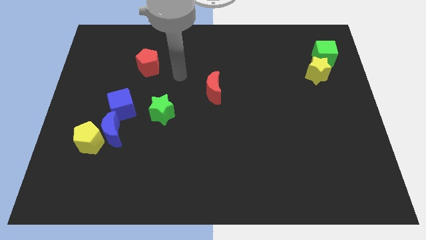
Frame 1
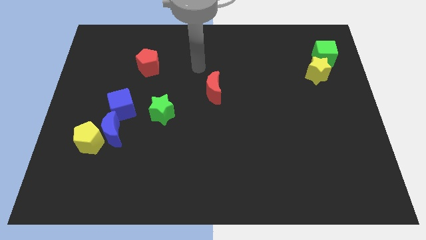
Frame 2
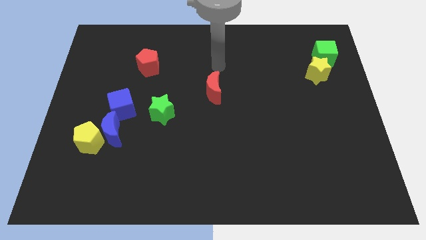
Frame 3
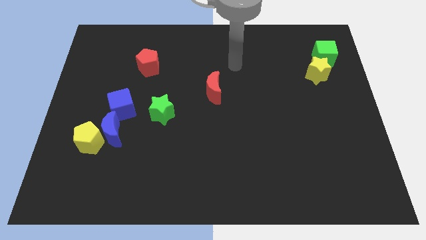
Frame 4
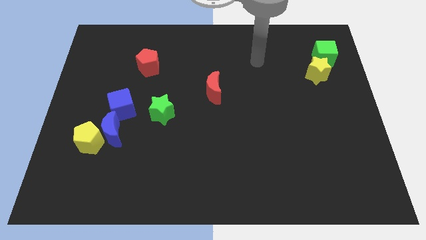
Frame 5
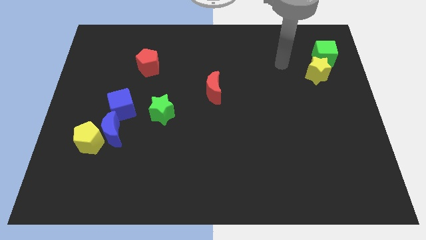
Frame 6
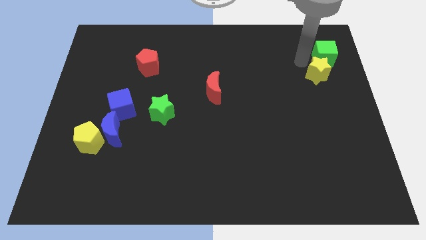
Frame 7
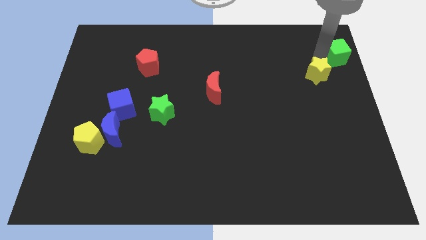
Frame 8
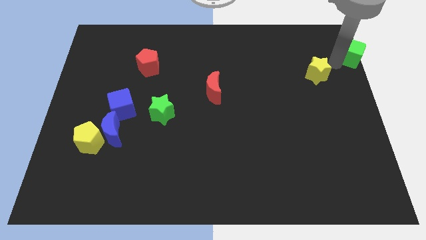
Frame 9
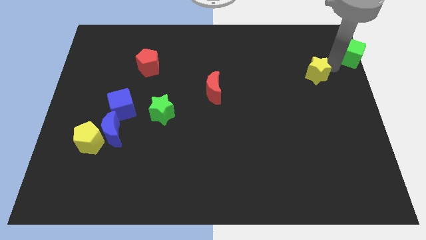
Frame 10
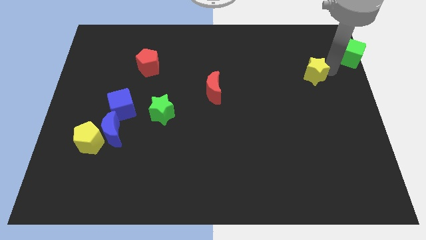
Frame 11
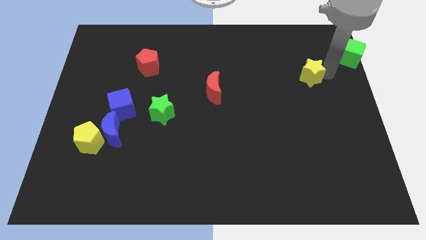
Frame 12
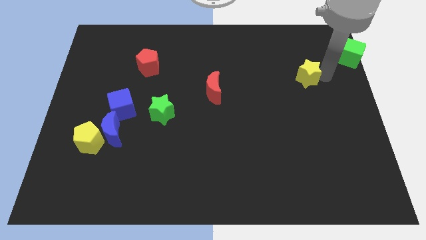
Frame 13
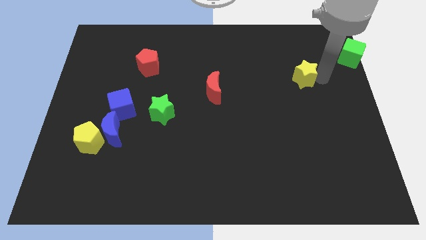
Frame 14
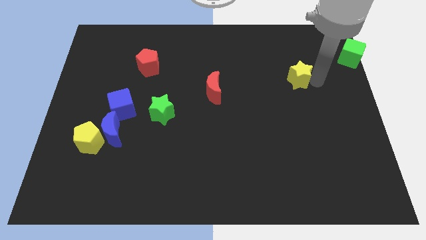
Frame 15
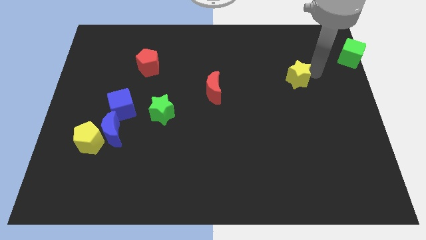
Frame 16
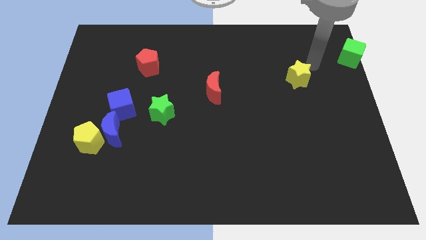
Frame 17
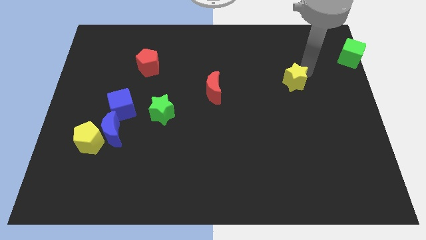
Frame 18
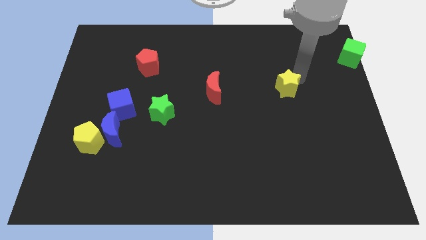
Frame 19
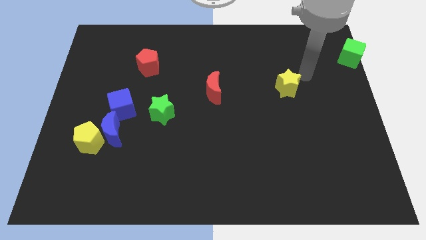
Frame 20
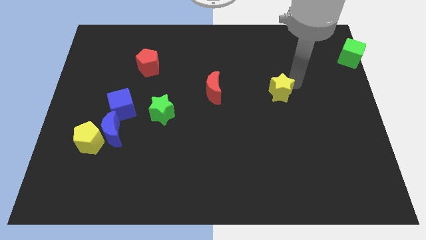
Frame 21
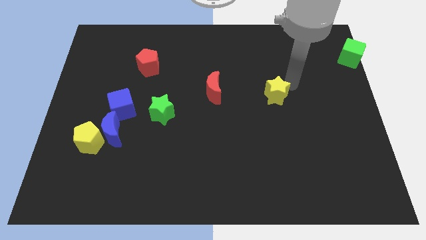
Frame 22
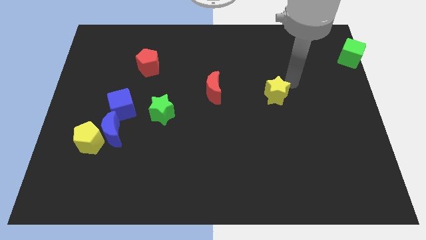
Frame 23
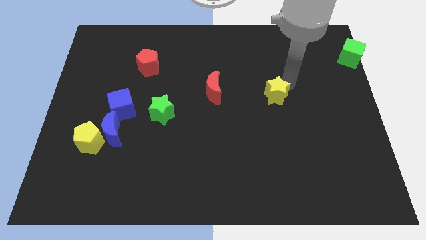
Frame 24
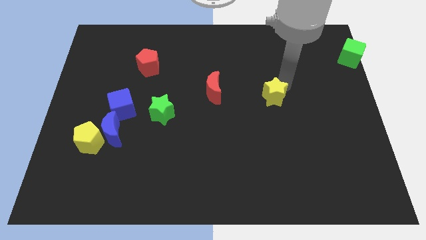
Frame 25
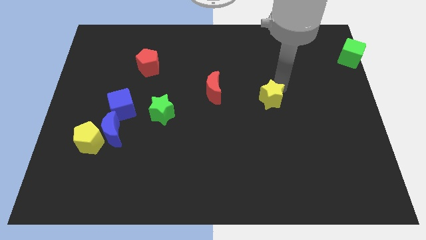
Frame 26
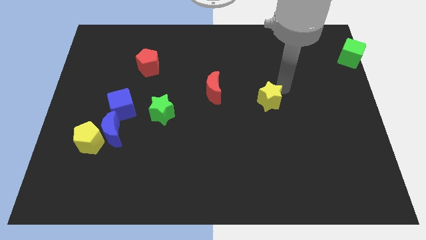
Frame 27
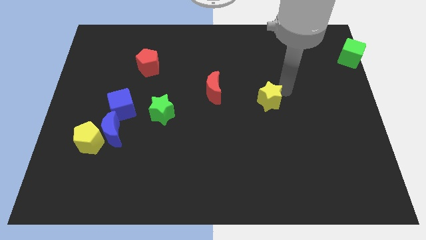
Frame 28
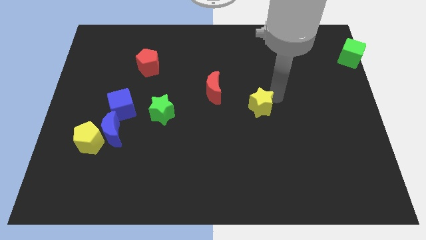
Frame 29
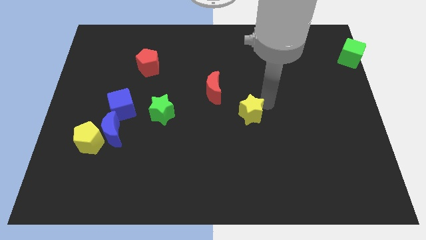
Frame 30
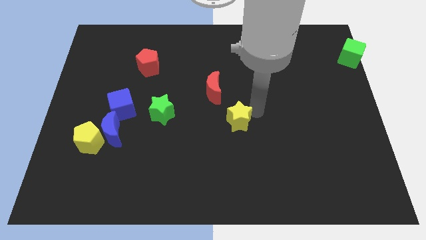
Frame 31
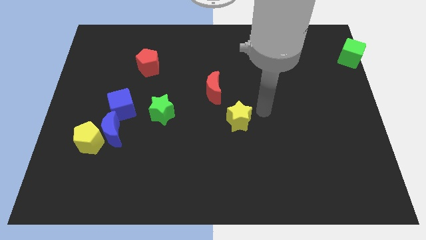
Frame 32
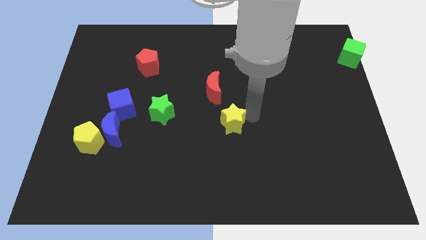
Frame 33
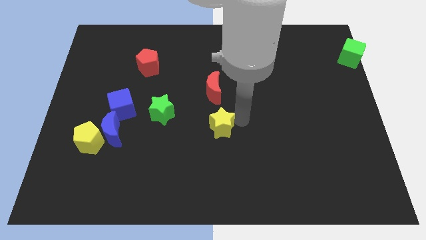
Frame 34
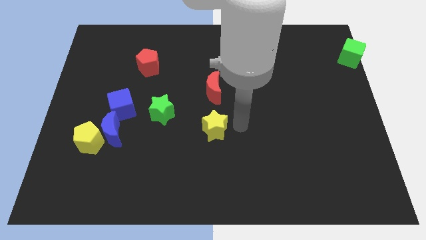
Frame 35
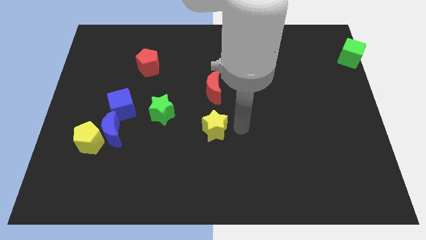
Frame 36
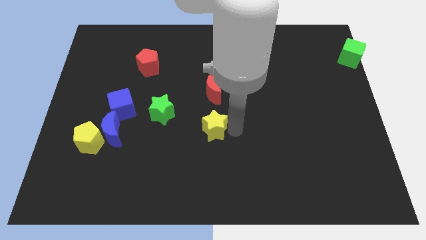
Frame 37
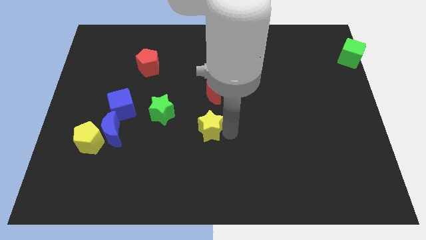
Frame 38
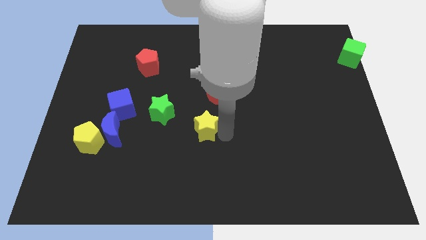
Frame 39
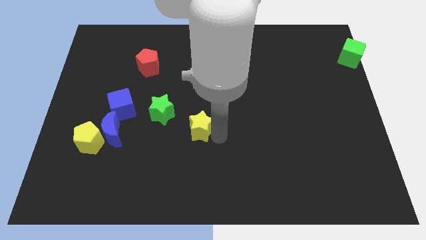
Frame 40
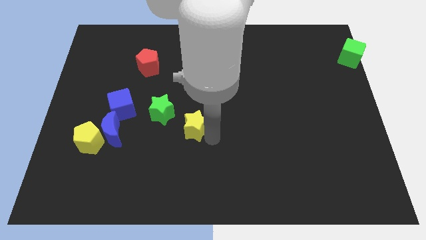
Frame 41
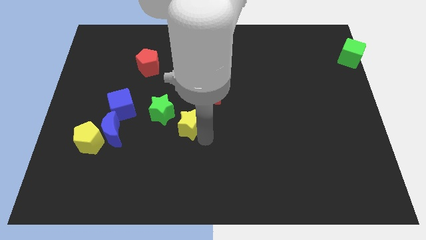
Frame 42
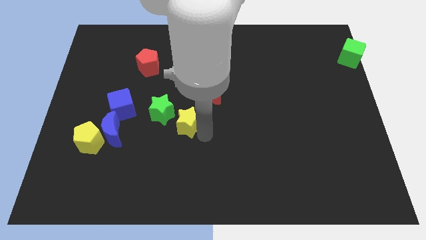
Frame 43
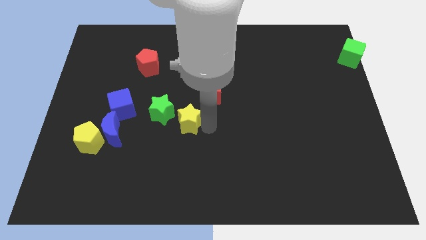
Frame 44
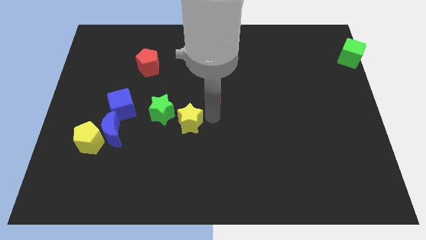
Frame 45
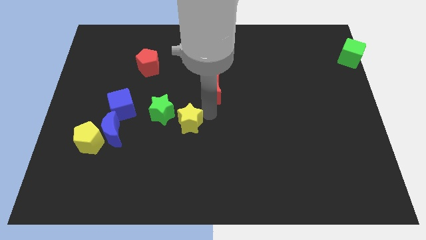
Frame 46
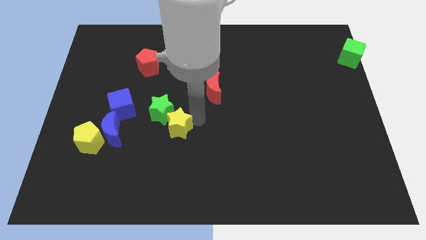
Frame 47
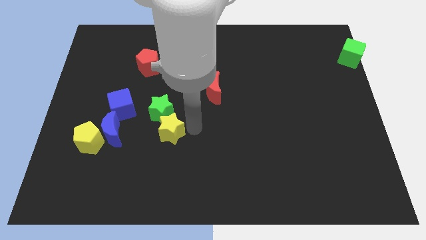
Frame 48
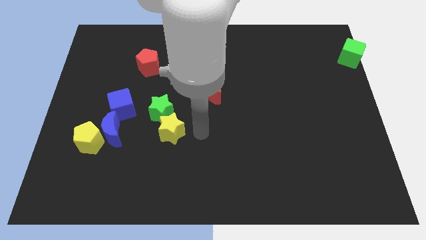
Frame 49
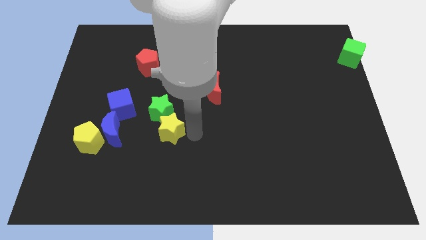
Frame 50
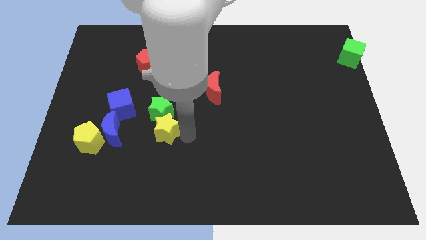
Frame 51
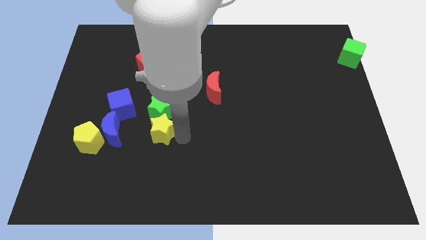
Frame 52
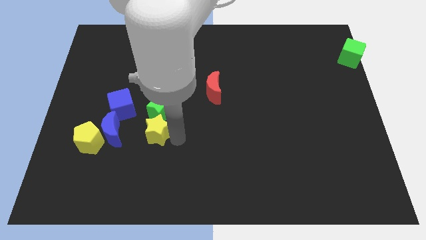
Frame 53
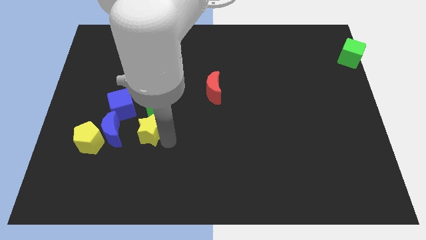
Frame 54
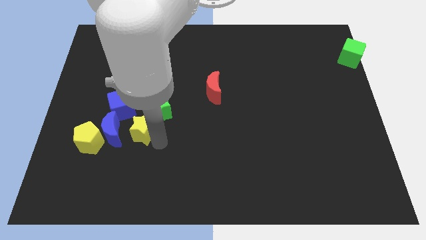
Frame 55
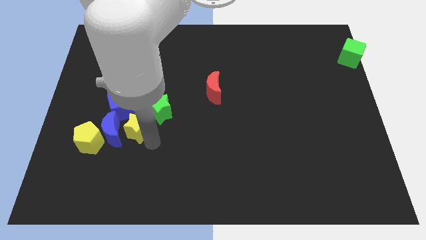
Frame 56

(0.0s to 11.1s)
slide the yellow star towards the blue moon

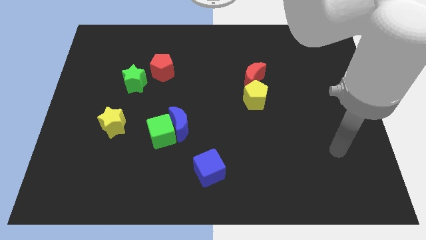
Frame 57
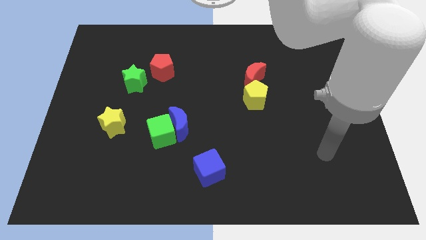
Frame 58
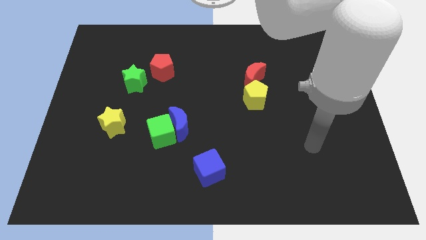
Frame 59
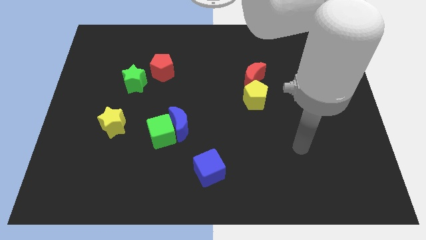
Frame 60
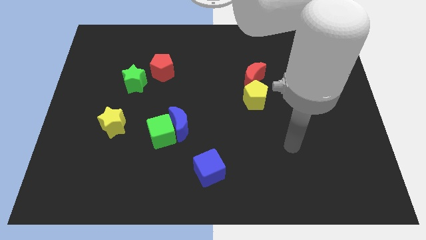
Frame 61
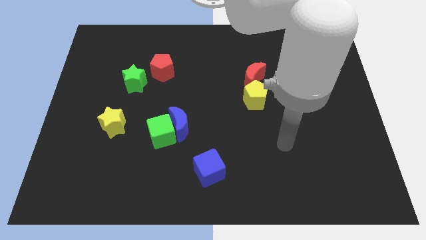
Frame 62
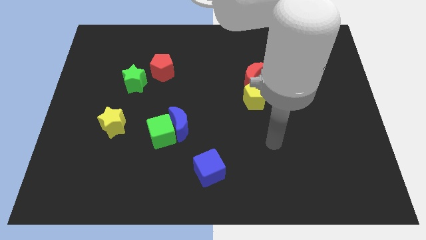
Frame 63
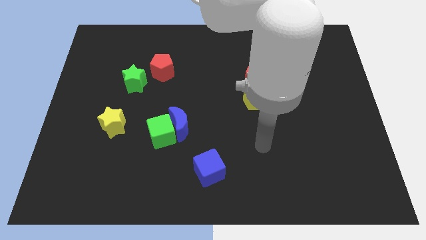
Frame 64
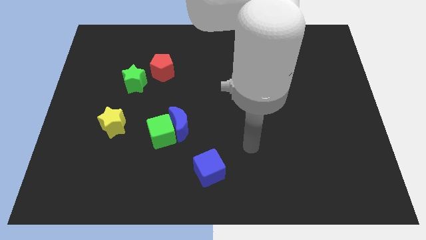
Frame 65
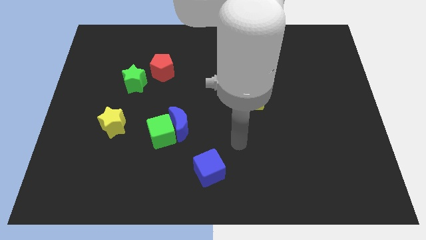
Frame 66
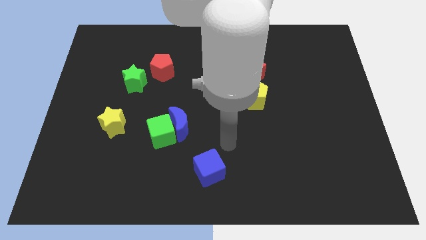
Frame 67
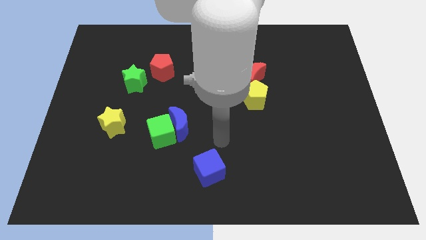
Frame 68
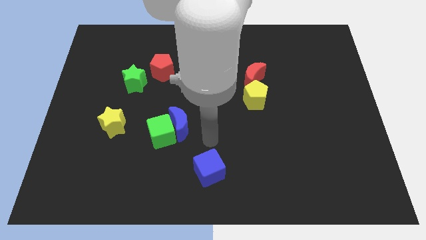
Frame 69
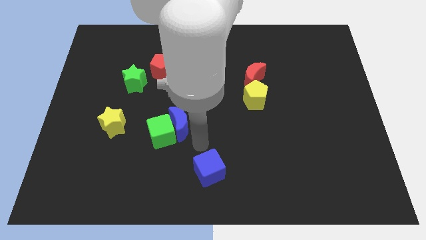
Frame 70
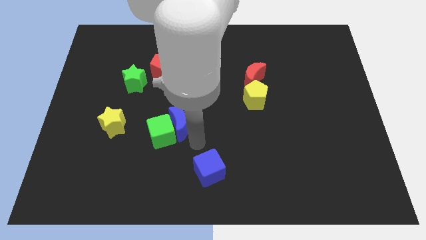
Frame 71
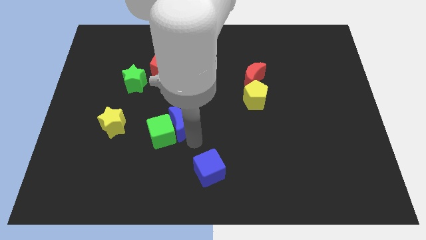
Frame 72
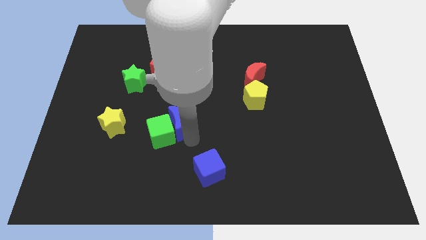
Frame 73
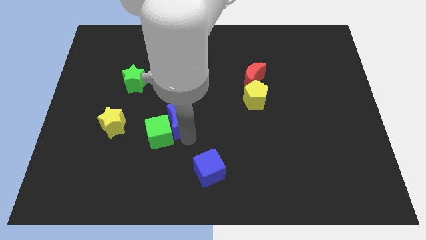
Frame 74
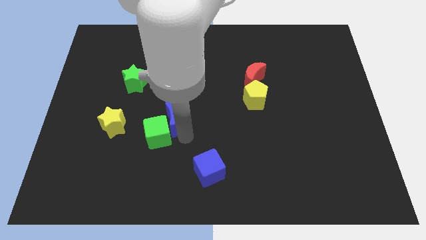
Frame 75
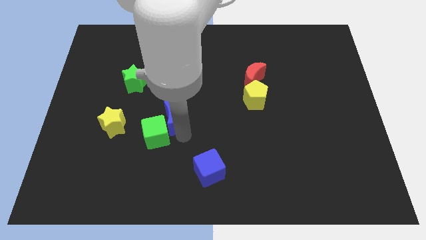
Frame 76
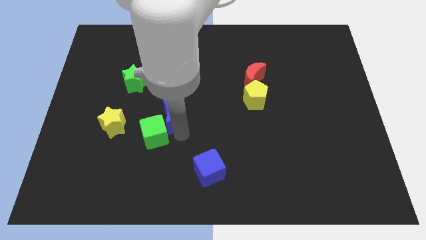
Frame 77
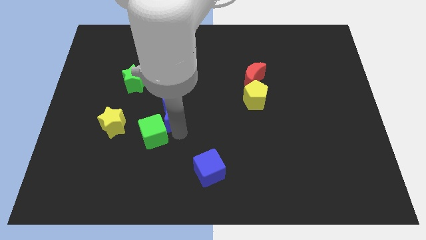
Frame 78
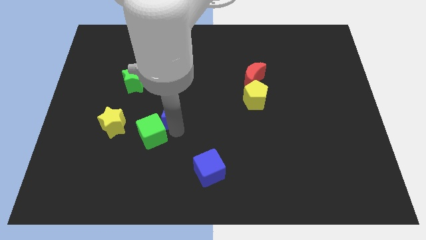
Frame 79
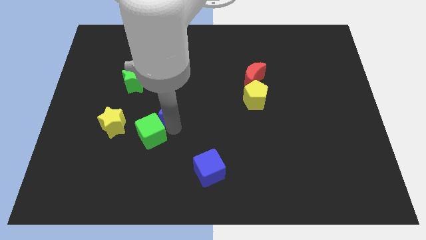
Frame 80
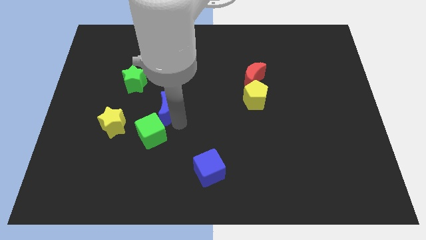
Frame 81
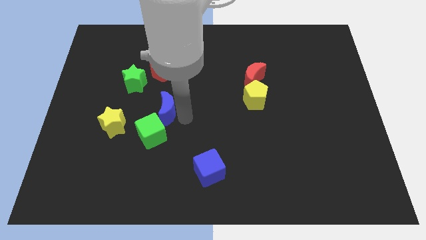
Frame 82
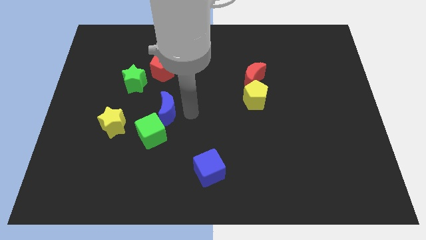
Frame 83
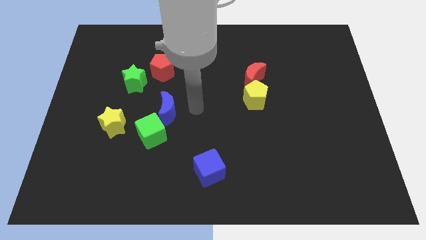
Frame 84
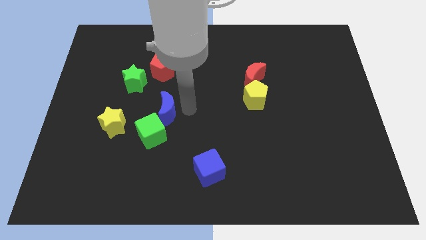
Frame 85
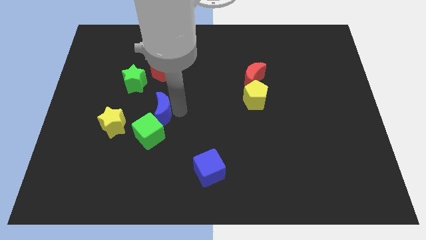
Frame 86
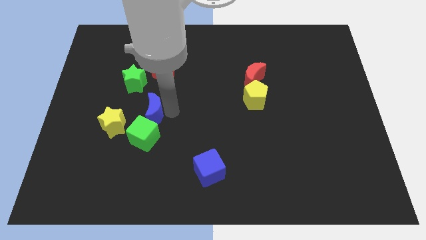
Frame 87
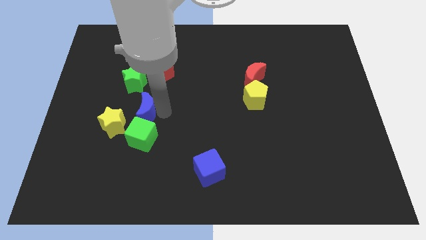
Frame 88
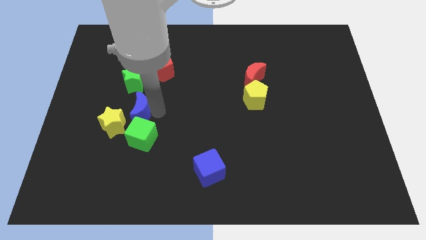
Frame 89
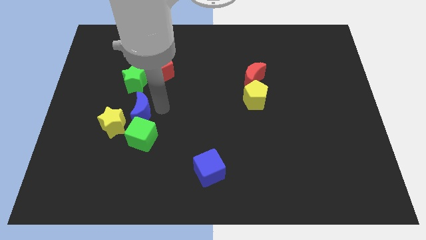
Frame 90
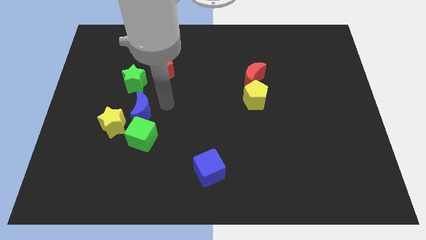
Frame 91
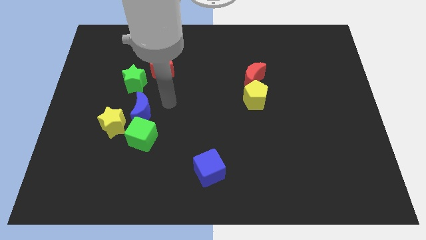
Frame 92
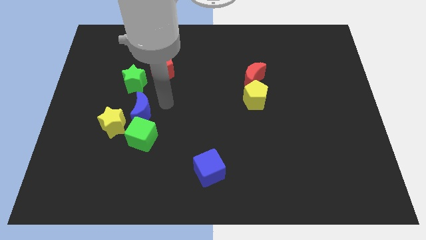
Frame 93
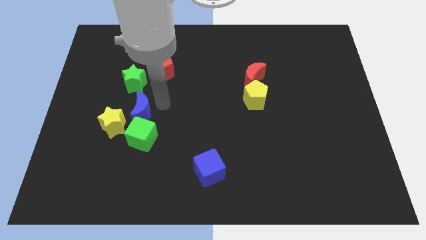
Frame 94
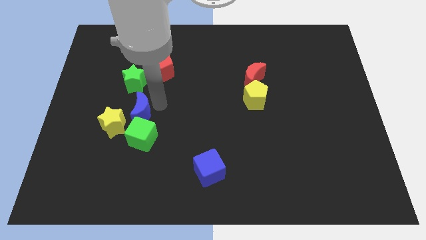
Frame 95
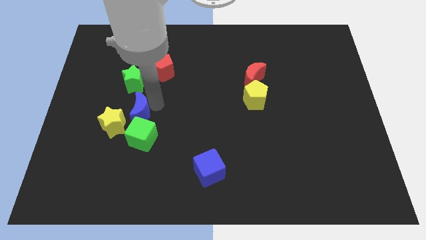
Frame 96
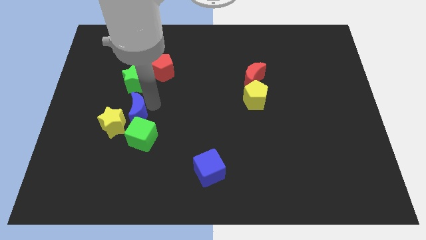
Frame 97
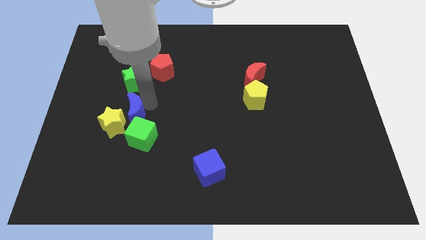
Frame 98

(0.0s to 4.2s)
put the blue moon towards the yellow star
